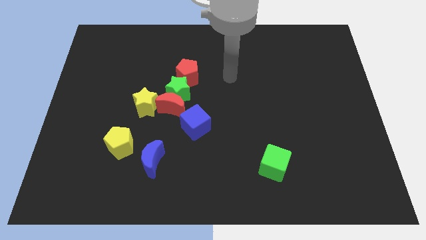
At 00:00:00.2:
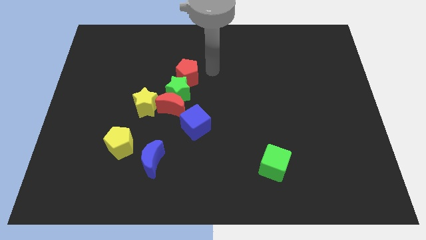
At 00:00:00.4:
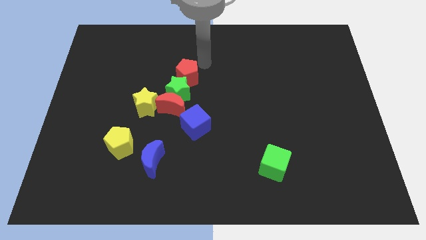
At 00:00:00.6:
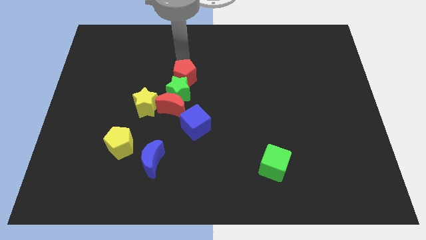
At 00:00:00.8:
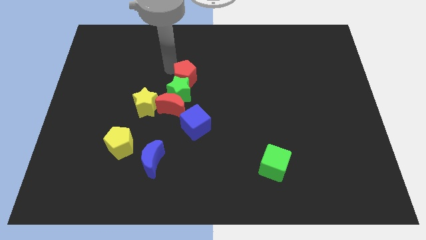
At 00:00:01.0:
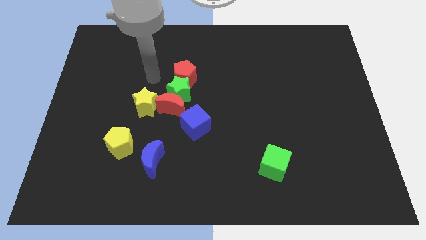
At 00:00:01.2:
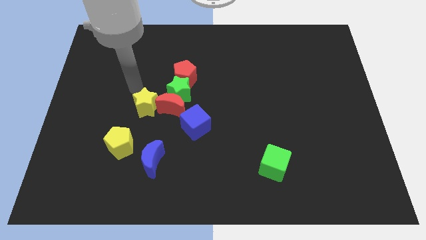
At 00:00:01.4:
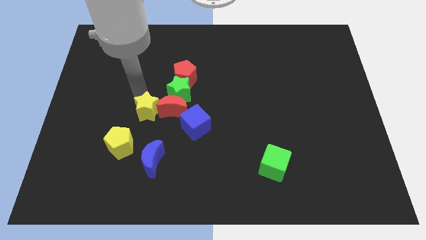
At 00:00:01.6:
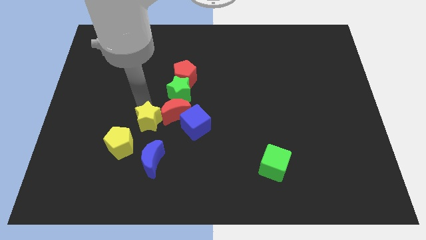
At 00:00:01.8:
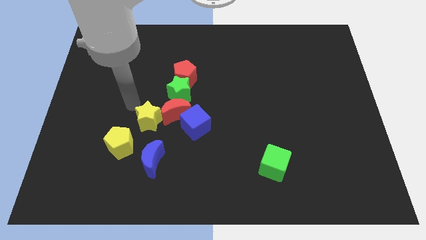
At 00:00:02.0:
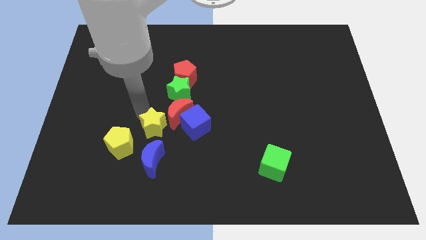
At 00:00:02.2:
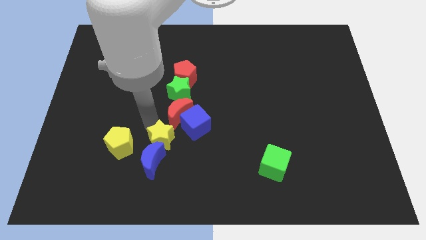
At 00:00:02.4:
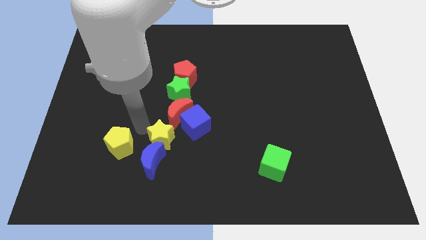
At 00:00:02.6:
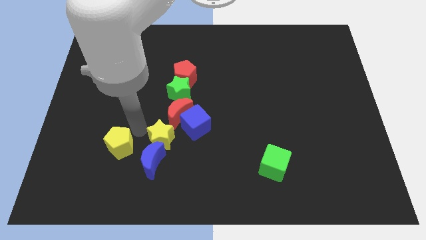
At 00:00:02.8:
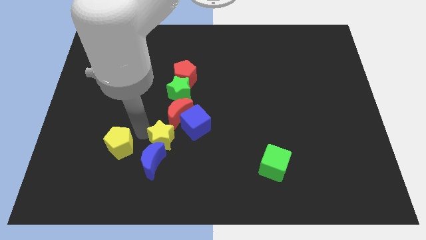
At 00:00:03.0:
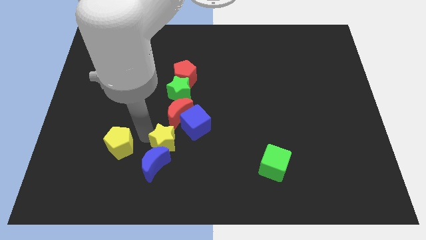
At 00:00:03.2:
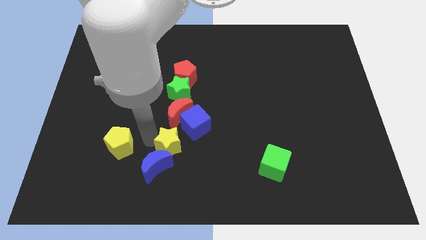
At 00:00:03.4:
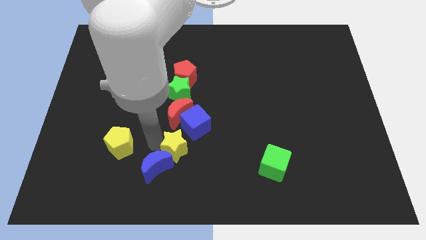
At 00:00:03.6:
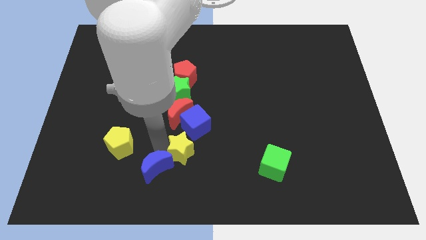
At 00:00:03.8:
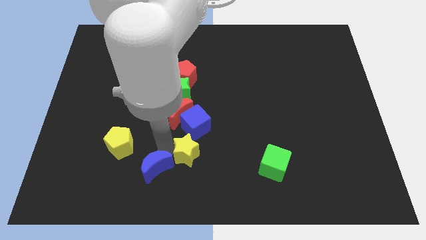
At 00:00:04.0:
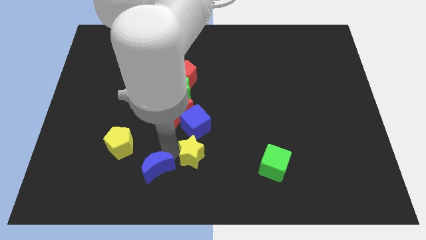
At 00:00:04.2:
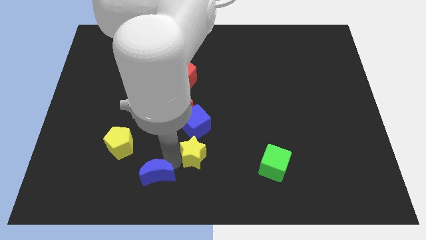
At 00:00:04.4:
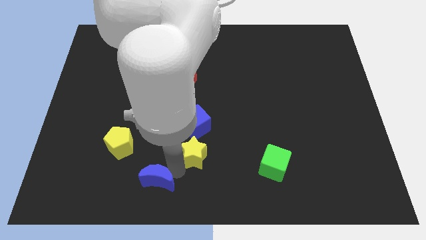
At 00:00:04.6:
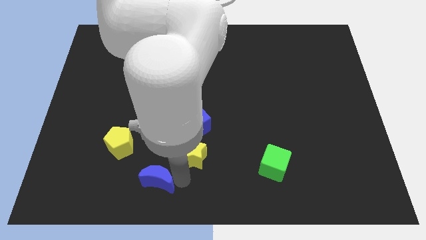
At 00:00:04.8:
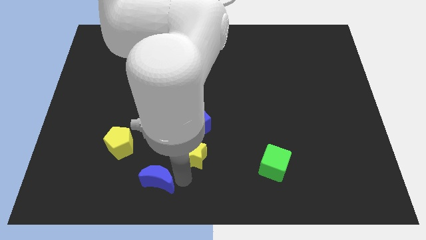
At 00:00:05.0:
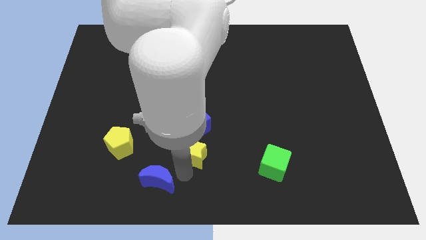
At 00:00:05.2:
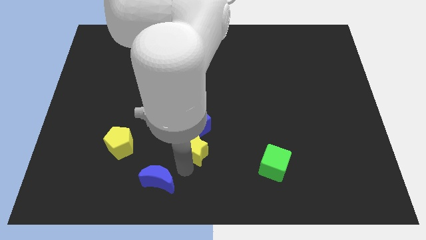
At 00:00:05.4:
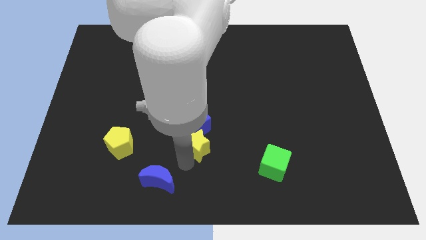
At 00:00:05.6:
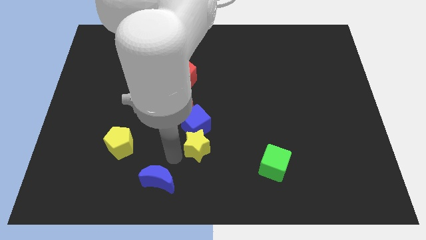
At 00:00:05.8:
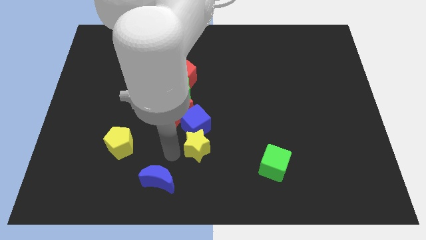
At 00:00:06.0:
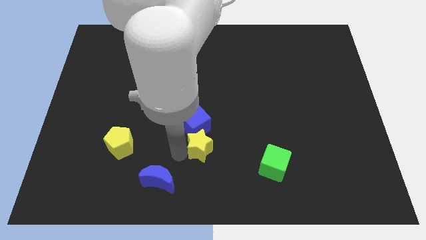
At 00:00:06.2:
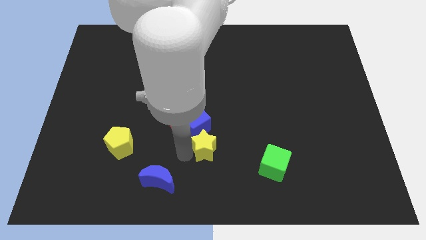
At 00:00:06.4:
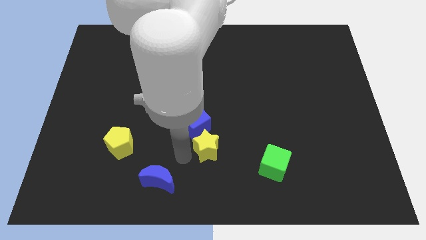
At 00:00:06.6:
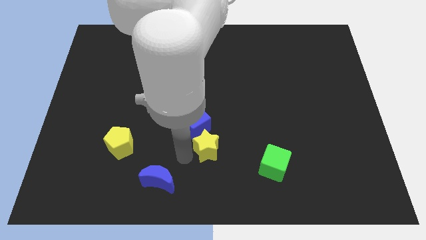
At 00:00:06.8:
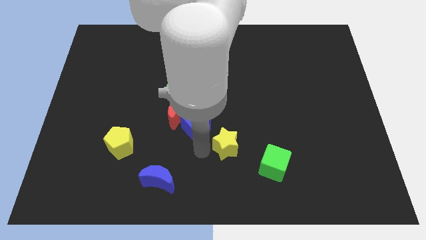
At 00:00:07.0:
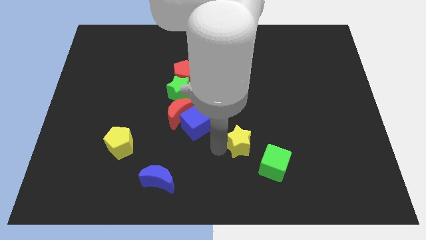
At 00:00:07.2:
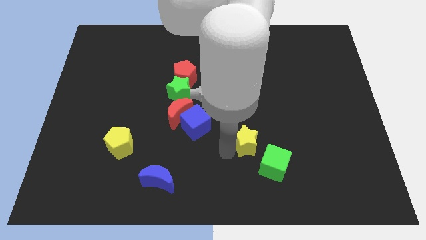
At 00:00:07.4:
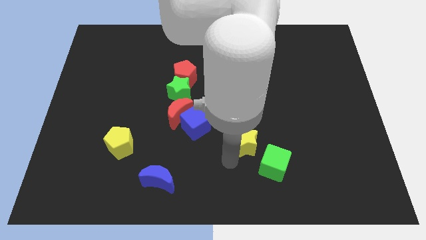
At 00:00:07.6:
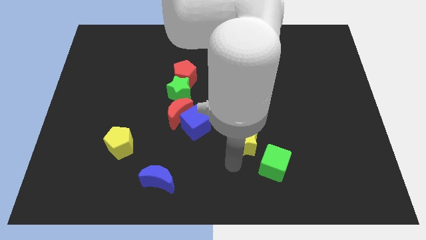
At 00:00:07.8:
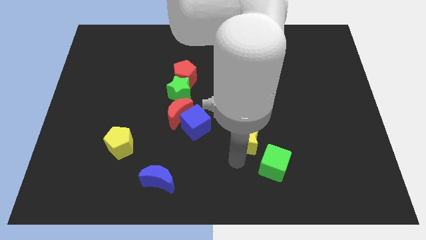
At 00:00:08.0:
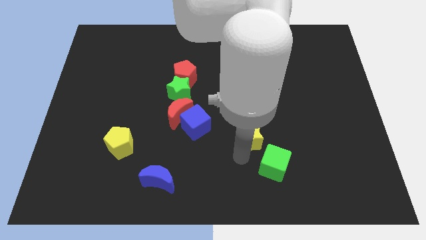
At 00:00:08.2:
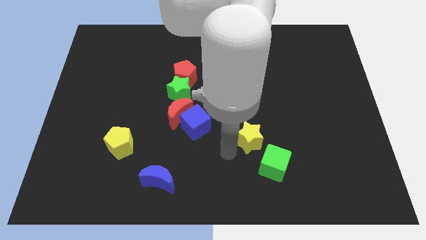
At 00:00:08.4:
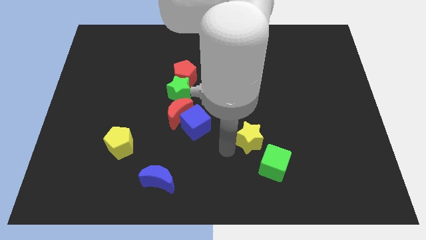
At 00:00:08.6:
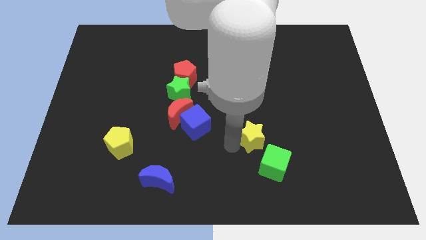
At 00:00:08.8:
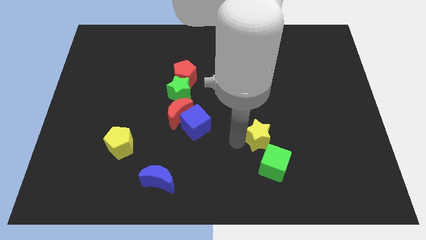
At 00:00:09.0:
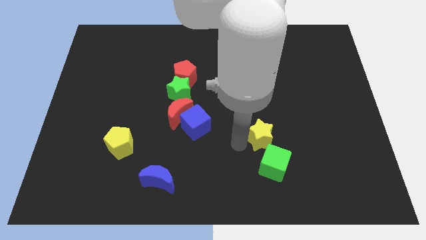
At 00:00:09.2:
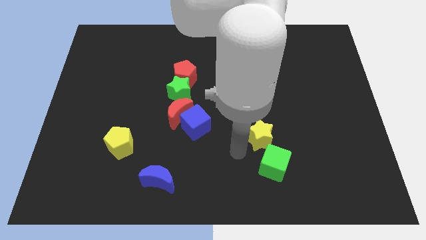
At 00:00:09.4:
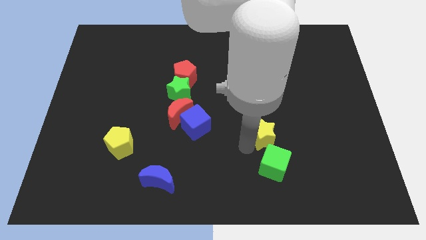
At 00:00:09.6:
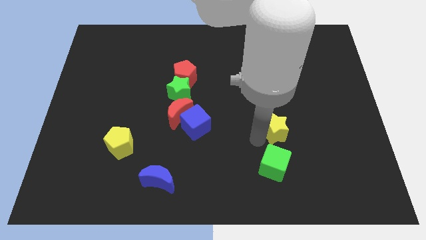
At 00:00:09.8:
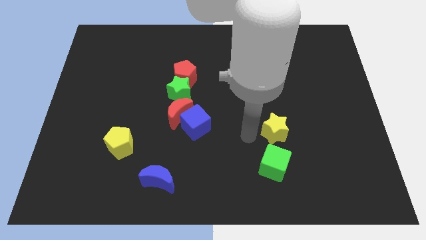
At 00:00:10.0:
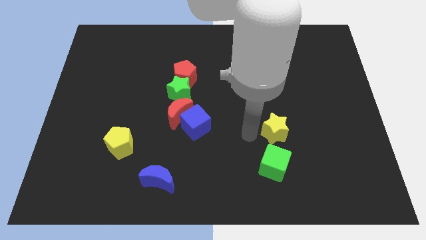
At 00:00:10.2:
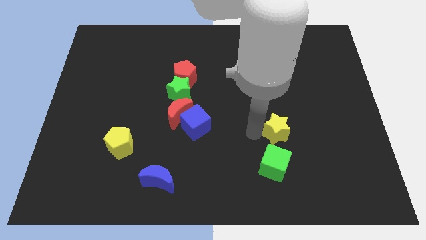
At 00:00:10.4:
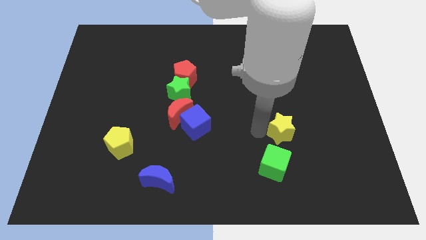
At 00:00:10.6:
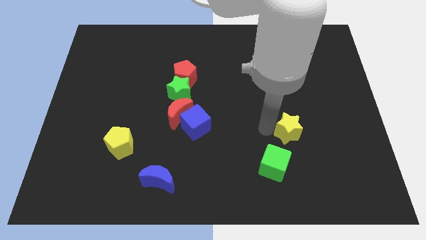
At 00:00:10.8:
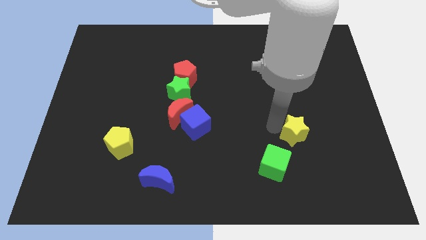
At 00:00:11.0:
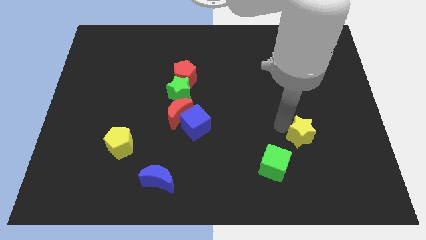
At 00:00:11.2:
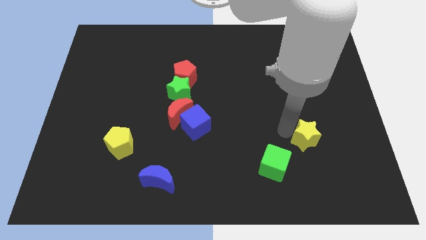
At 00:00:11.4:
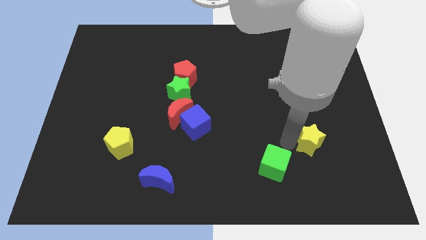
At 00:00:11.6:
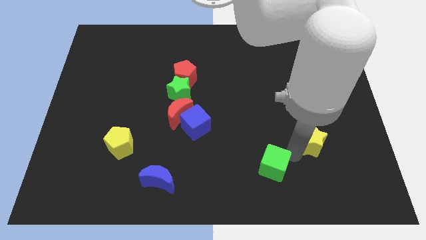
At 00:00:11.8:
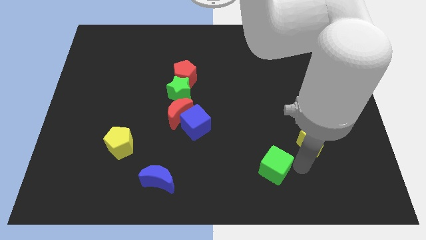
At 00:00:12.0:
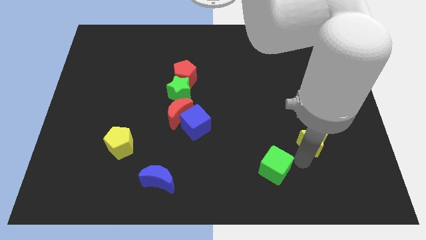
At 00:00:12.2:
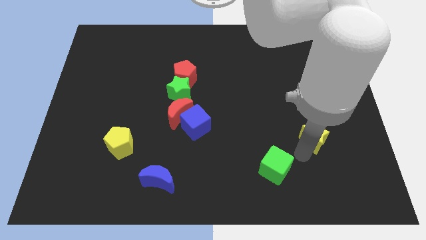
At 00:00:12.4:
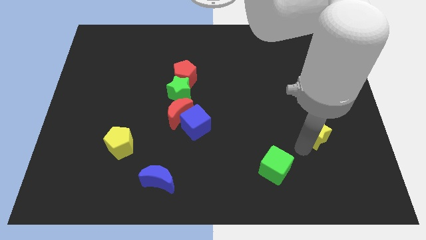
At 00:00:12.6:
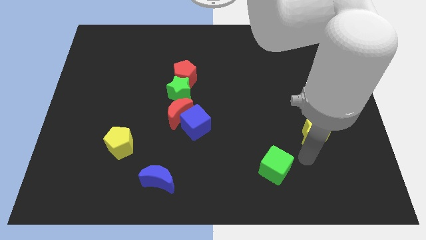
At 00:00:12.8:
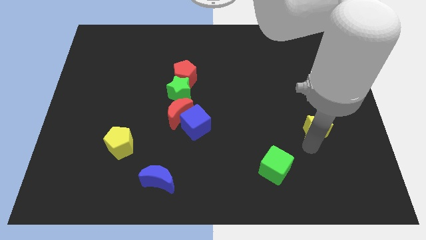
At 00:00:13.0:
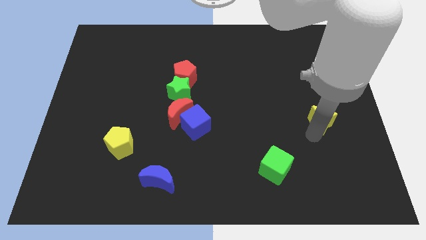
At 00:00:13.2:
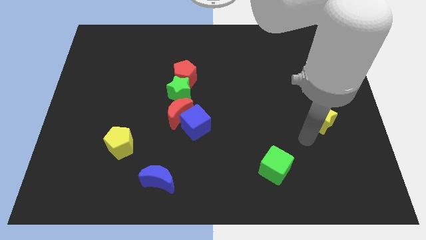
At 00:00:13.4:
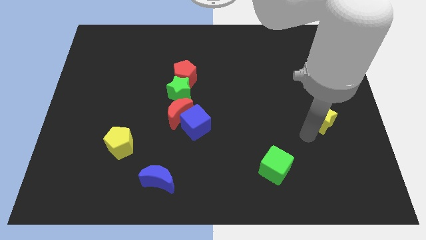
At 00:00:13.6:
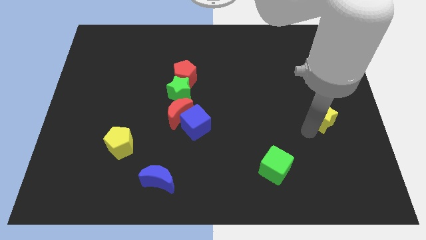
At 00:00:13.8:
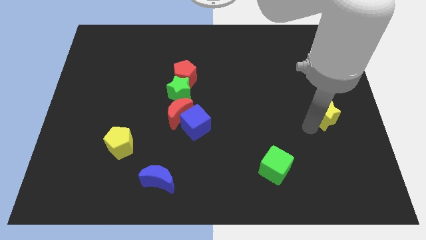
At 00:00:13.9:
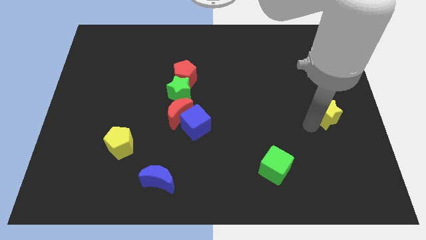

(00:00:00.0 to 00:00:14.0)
slide the yellow star to the right side
